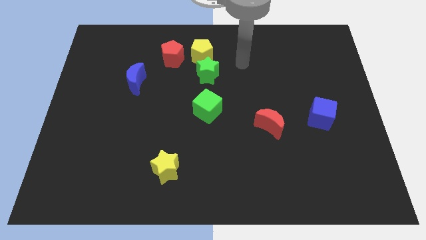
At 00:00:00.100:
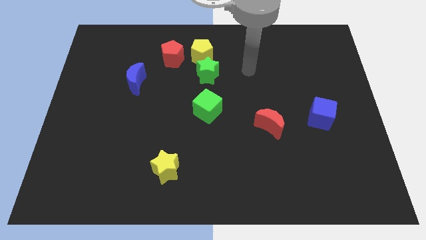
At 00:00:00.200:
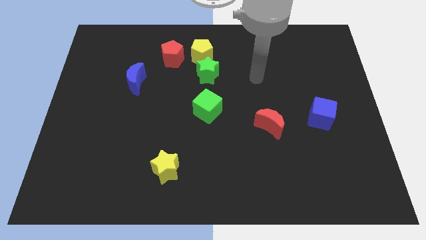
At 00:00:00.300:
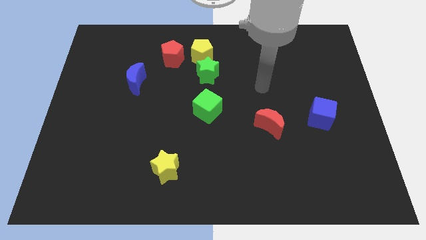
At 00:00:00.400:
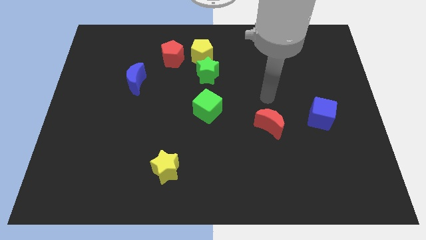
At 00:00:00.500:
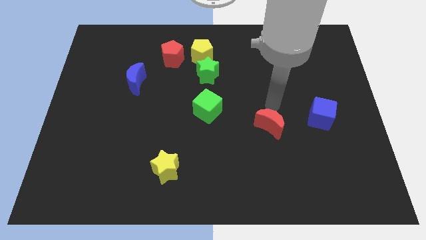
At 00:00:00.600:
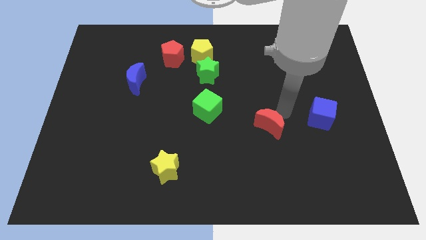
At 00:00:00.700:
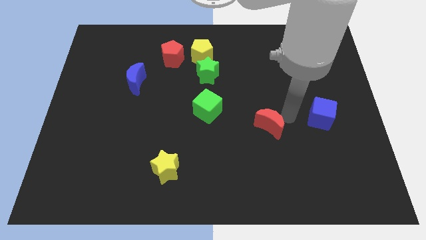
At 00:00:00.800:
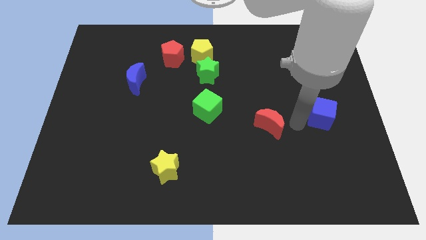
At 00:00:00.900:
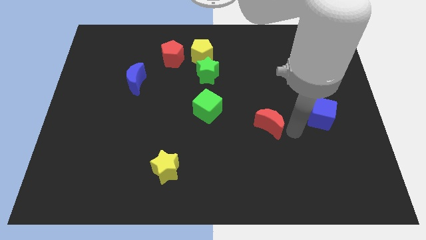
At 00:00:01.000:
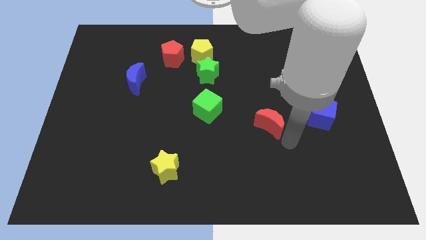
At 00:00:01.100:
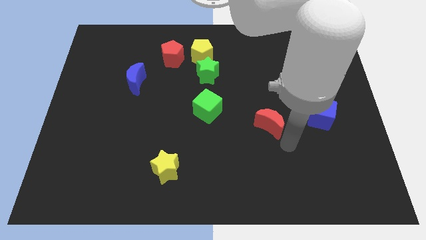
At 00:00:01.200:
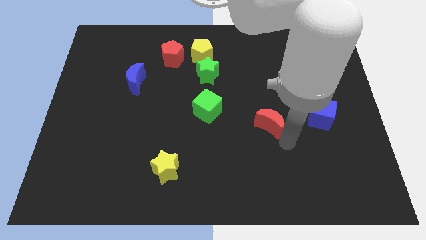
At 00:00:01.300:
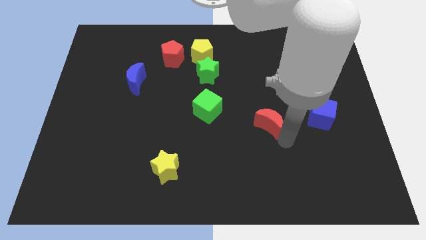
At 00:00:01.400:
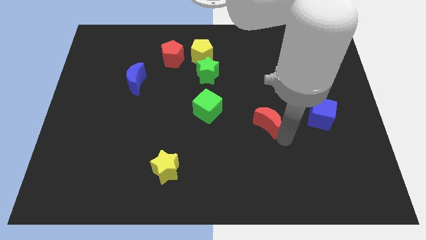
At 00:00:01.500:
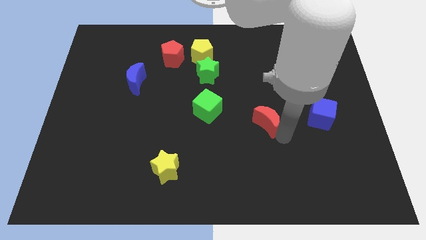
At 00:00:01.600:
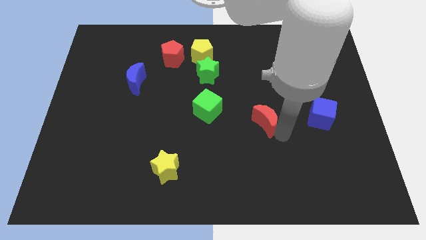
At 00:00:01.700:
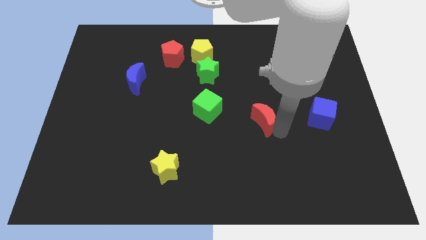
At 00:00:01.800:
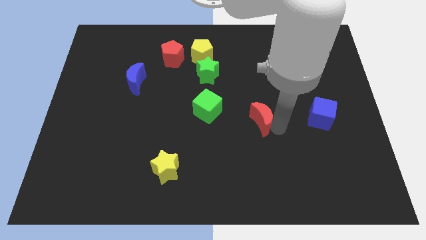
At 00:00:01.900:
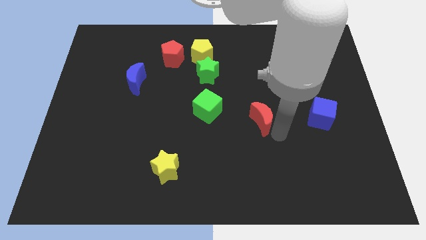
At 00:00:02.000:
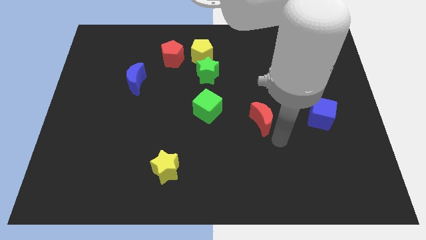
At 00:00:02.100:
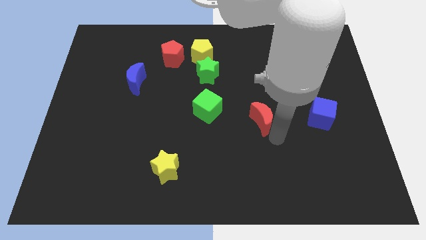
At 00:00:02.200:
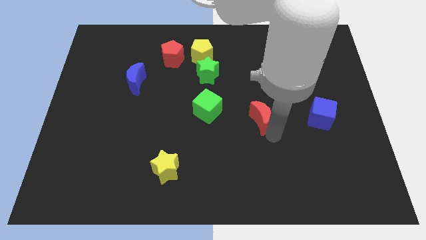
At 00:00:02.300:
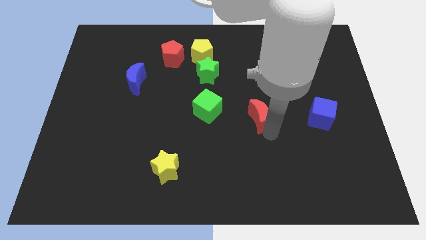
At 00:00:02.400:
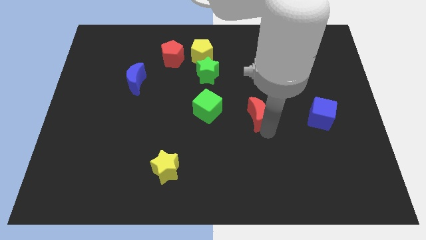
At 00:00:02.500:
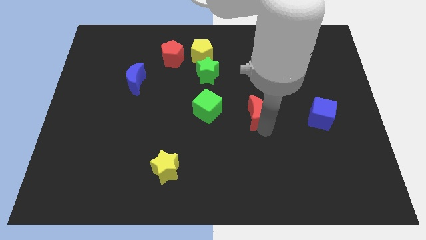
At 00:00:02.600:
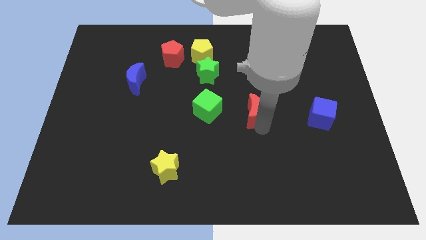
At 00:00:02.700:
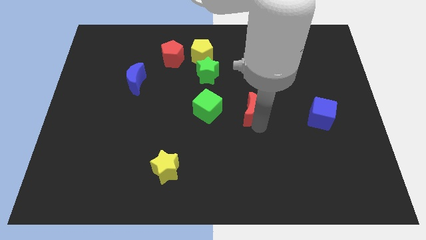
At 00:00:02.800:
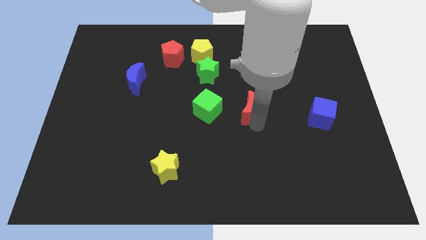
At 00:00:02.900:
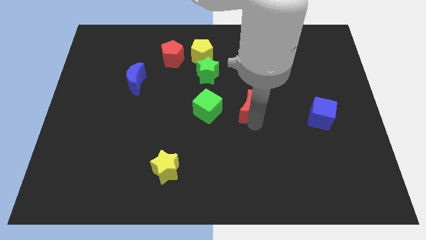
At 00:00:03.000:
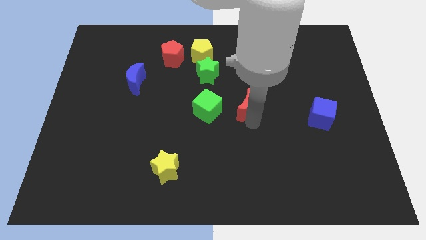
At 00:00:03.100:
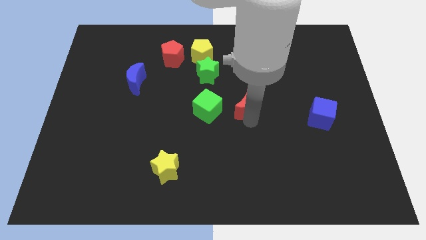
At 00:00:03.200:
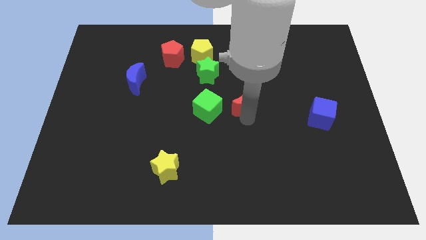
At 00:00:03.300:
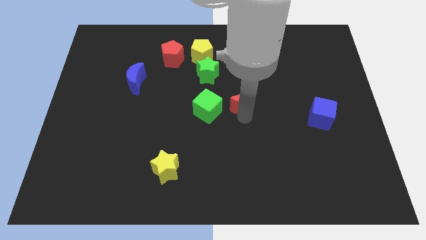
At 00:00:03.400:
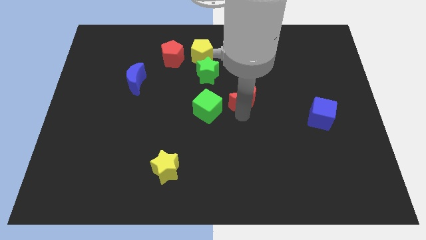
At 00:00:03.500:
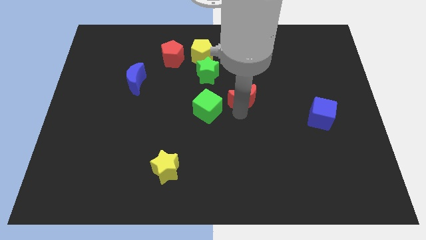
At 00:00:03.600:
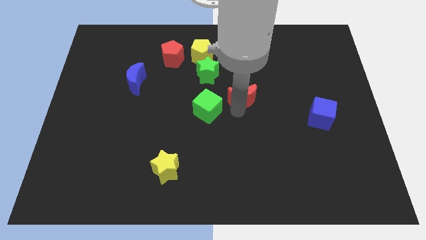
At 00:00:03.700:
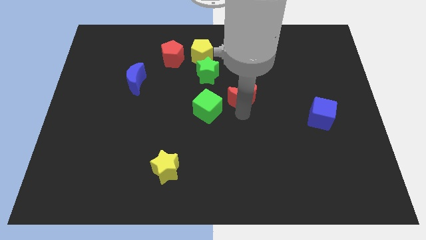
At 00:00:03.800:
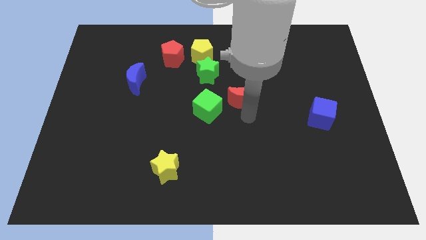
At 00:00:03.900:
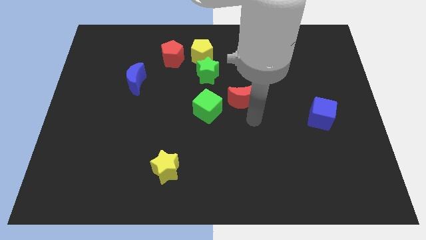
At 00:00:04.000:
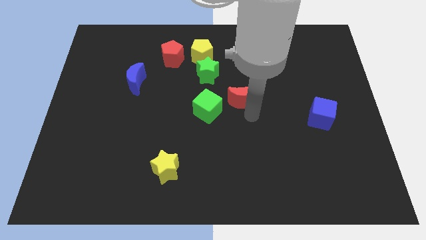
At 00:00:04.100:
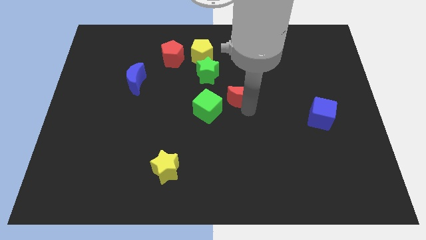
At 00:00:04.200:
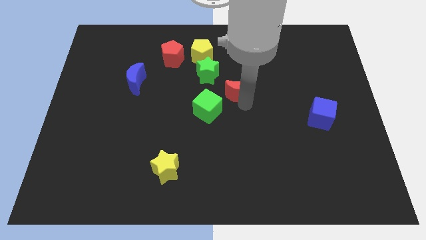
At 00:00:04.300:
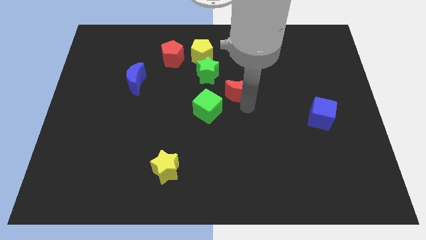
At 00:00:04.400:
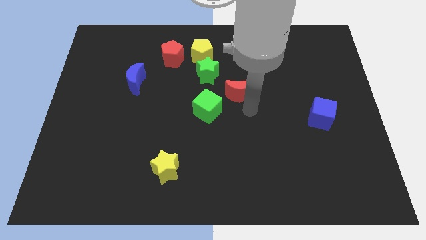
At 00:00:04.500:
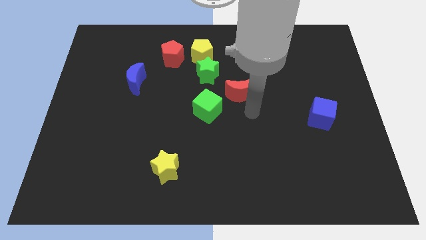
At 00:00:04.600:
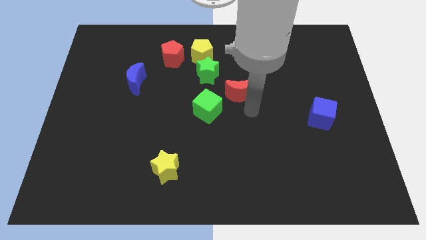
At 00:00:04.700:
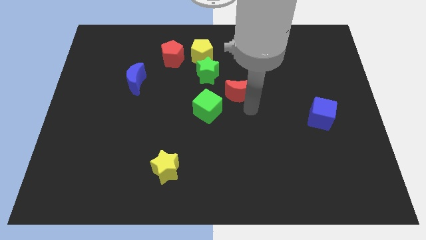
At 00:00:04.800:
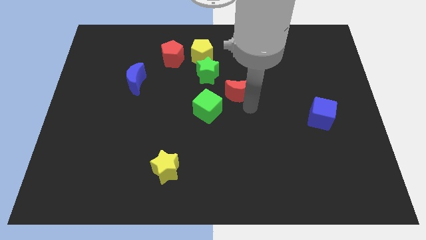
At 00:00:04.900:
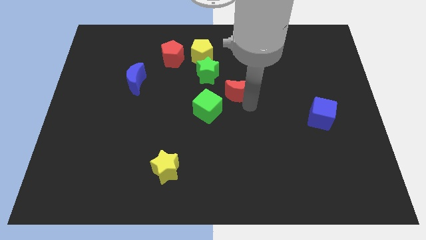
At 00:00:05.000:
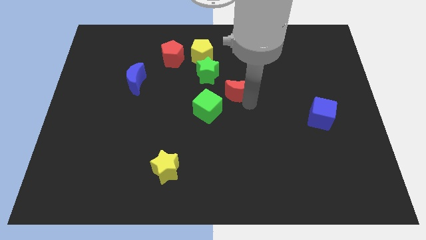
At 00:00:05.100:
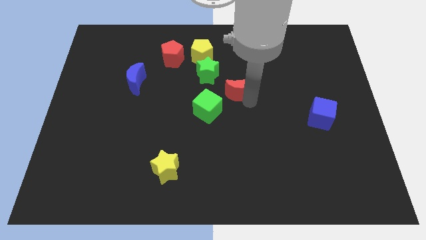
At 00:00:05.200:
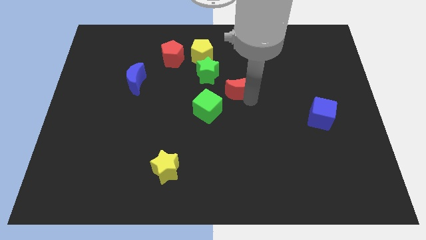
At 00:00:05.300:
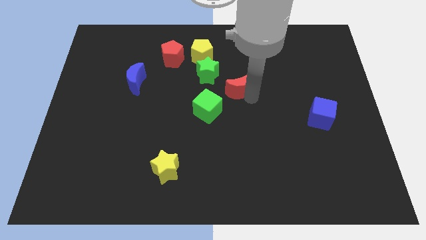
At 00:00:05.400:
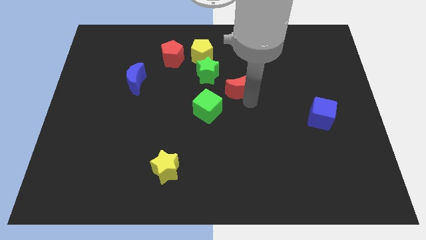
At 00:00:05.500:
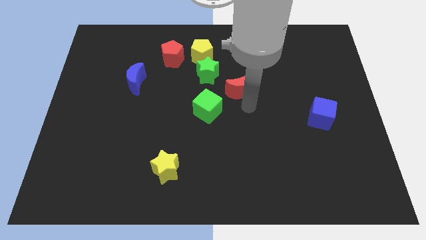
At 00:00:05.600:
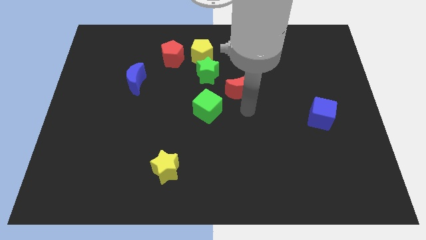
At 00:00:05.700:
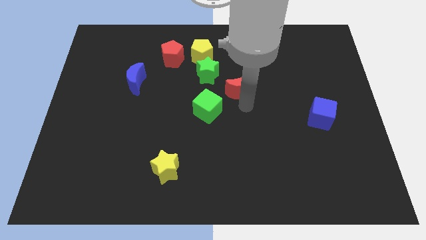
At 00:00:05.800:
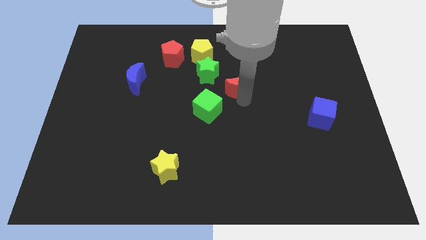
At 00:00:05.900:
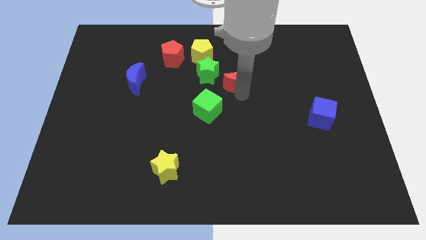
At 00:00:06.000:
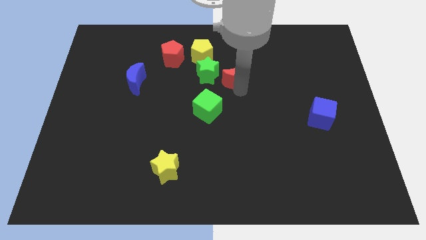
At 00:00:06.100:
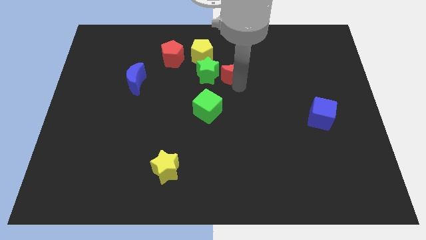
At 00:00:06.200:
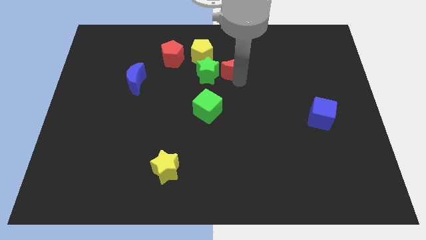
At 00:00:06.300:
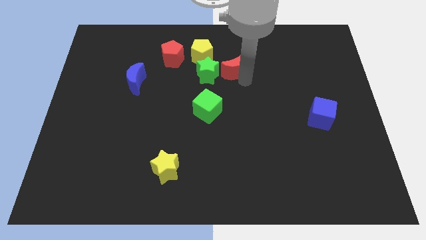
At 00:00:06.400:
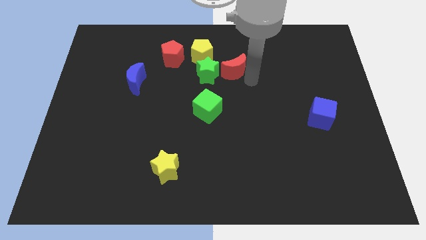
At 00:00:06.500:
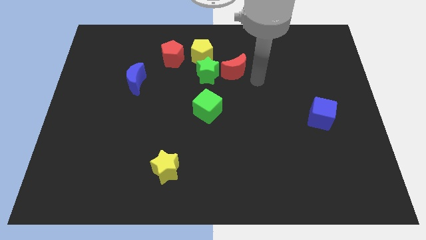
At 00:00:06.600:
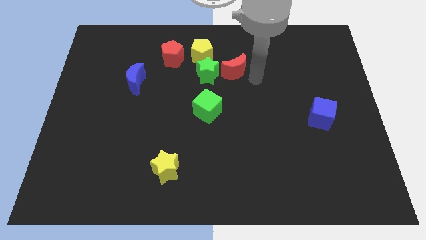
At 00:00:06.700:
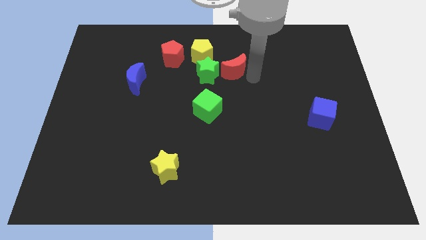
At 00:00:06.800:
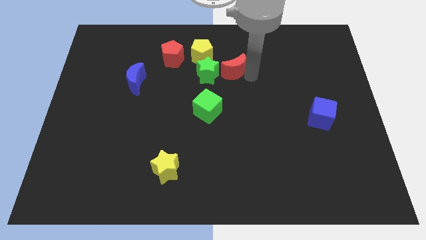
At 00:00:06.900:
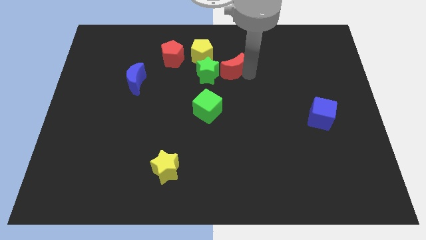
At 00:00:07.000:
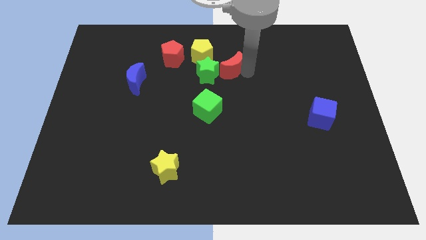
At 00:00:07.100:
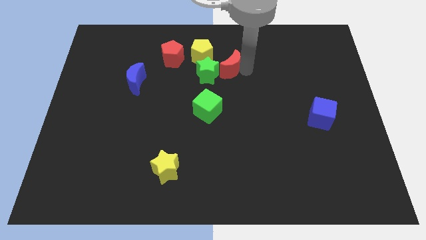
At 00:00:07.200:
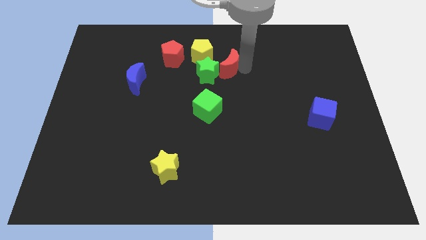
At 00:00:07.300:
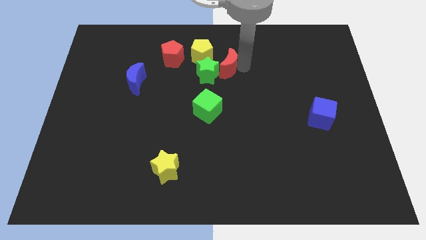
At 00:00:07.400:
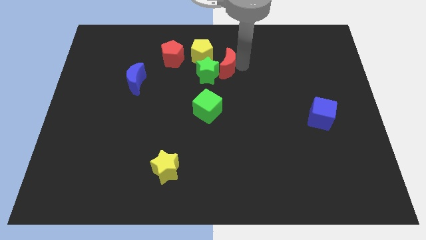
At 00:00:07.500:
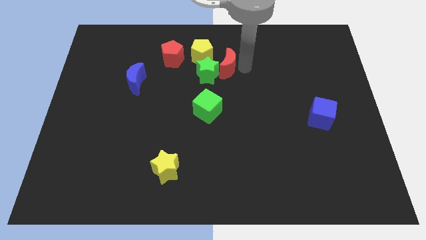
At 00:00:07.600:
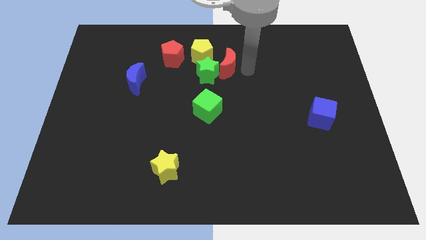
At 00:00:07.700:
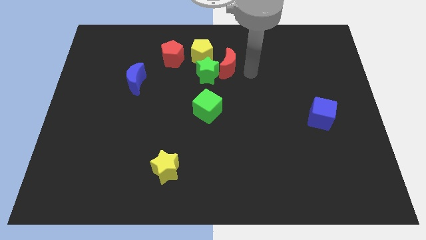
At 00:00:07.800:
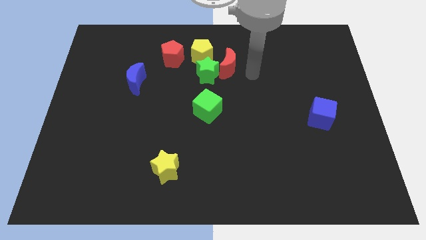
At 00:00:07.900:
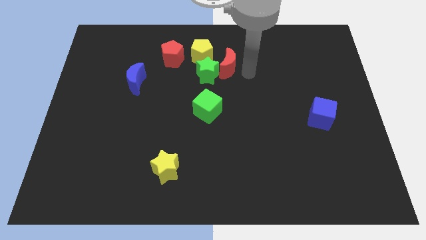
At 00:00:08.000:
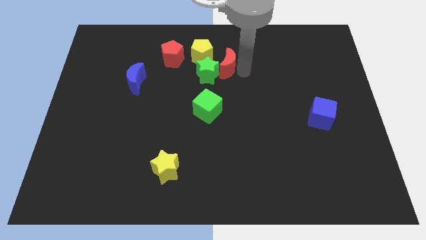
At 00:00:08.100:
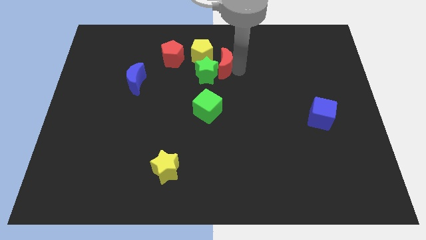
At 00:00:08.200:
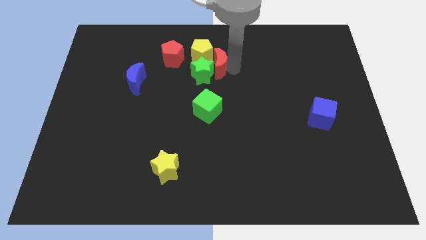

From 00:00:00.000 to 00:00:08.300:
slide the red moon towards the yellow pentagon
